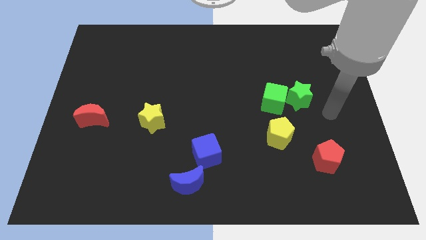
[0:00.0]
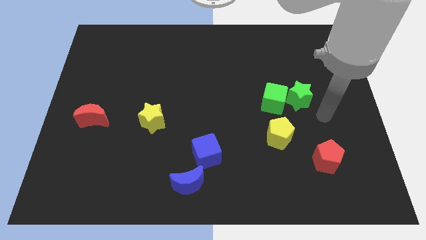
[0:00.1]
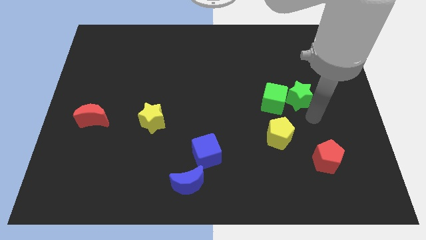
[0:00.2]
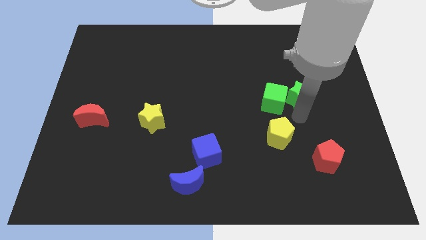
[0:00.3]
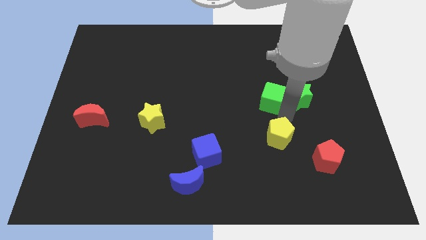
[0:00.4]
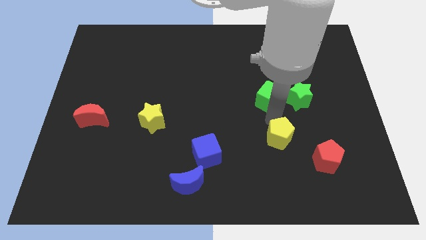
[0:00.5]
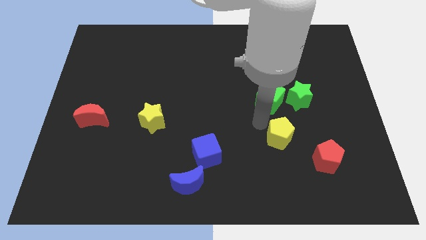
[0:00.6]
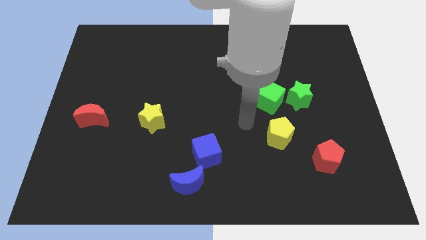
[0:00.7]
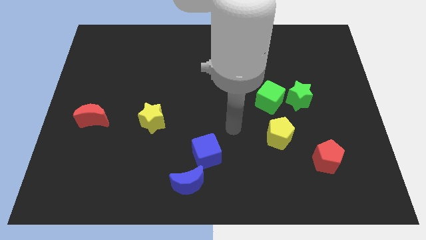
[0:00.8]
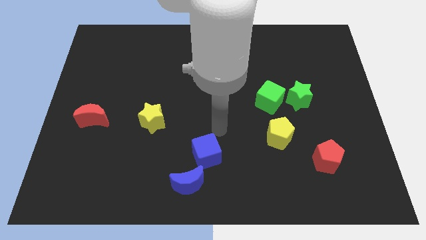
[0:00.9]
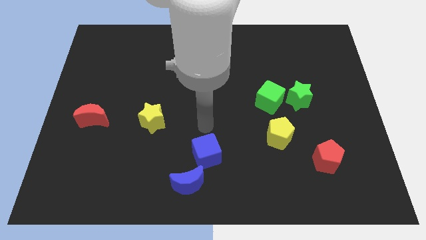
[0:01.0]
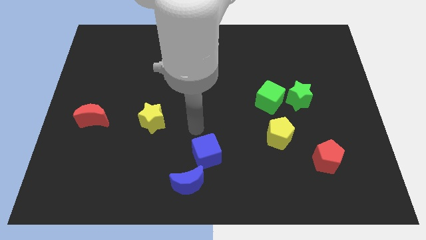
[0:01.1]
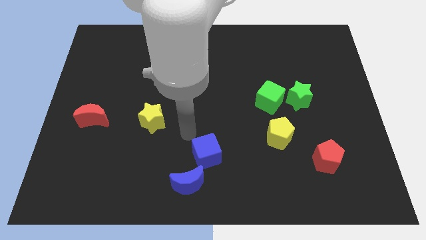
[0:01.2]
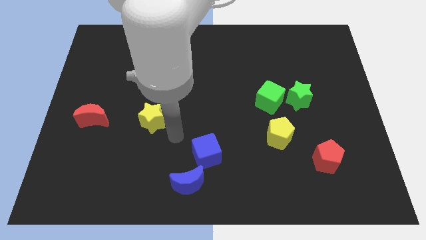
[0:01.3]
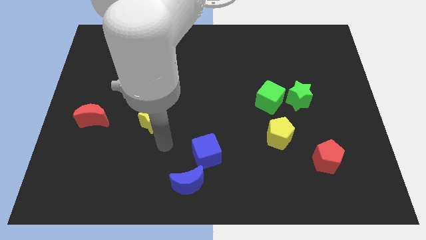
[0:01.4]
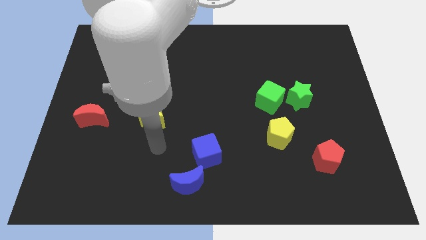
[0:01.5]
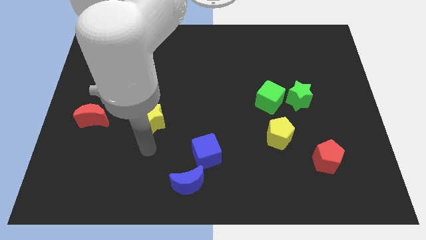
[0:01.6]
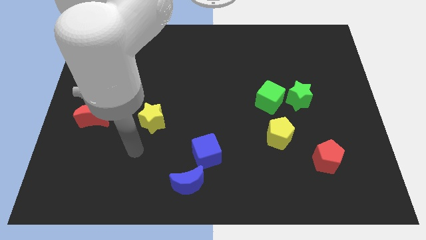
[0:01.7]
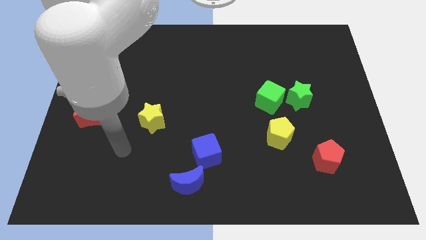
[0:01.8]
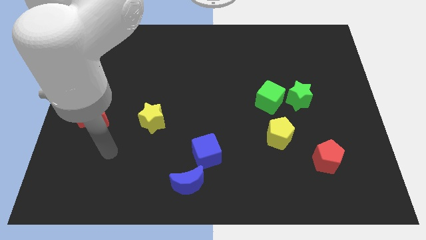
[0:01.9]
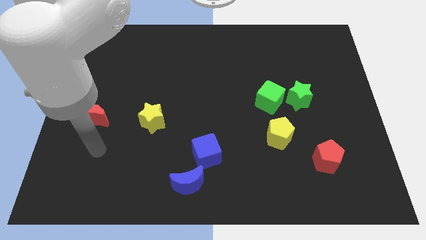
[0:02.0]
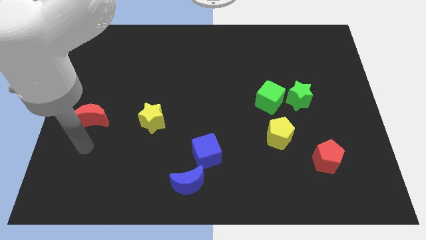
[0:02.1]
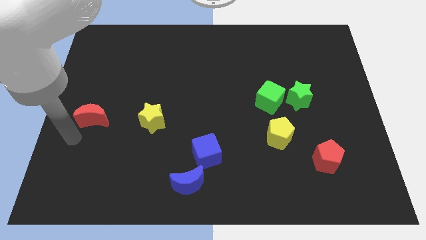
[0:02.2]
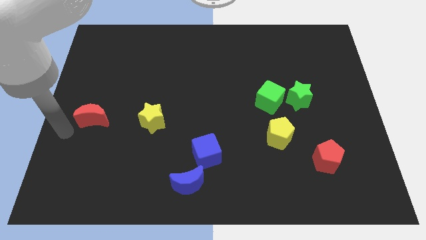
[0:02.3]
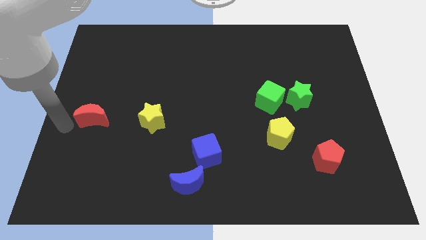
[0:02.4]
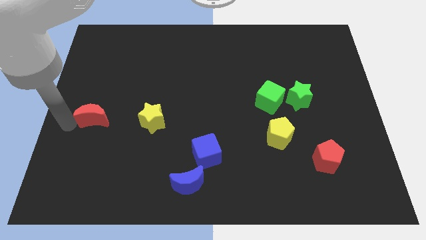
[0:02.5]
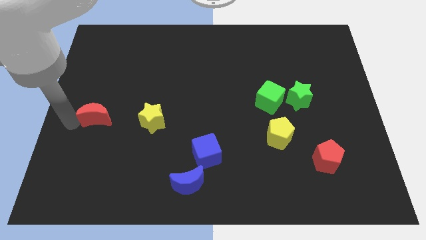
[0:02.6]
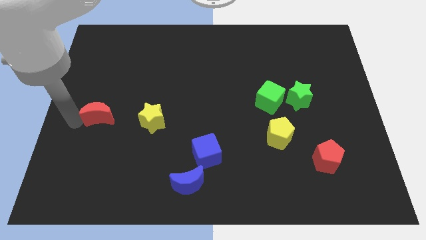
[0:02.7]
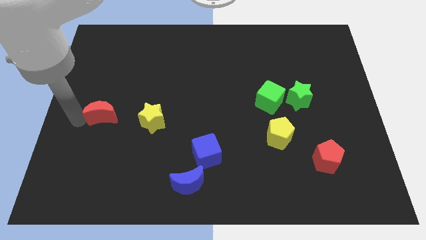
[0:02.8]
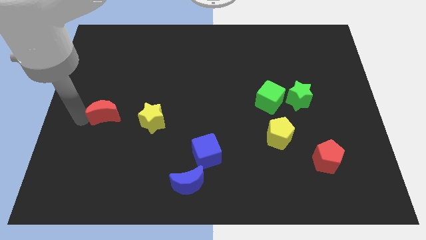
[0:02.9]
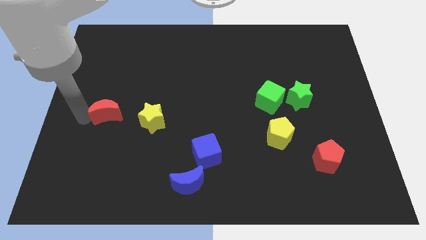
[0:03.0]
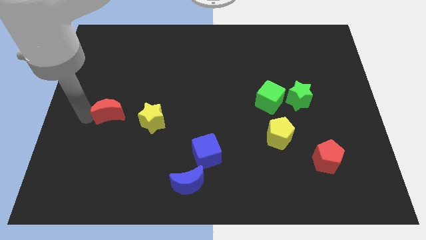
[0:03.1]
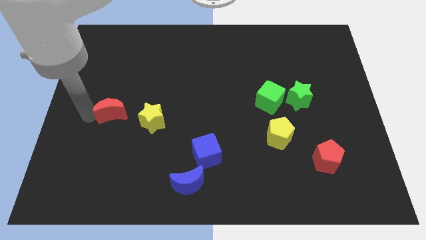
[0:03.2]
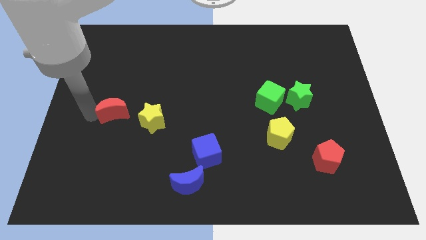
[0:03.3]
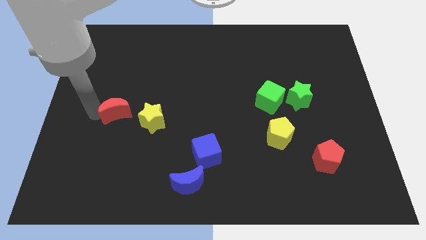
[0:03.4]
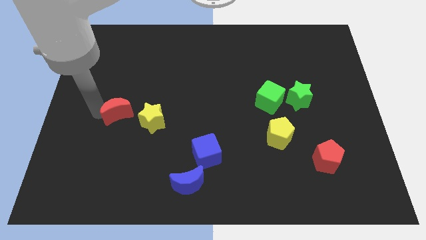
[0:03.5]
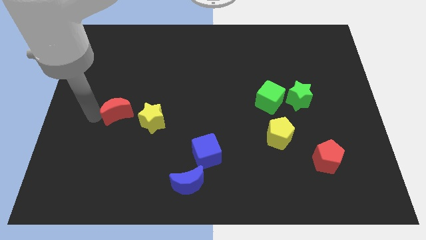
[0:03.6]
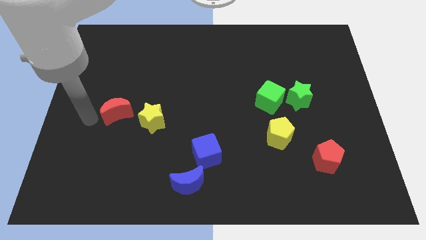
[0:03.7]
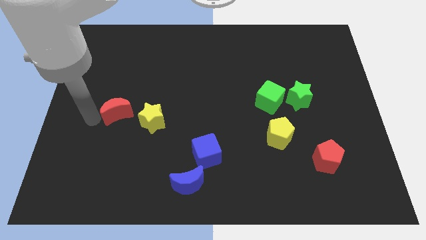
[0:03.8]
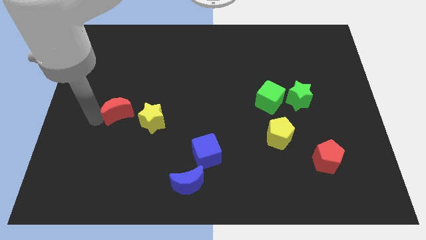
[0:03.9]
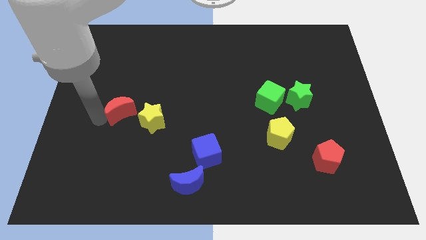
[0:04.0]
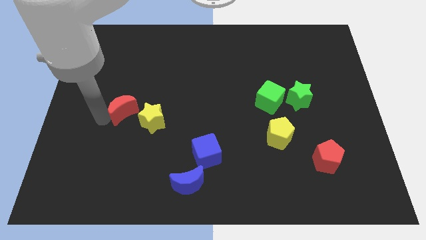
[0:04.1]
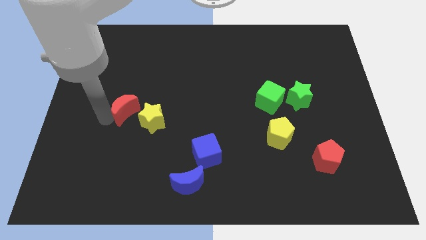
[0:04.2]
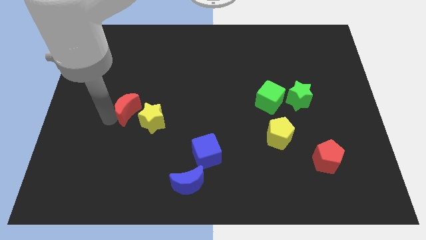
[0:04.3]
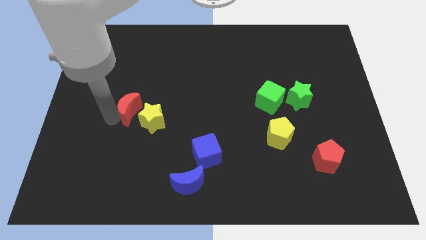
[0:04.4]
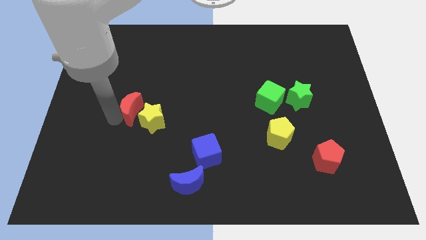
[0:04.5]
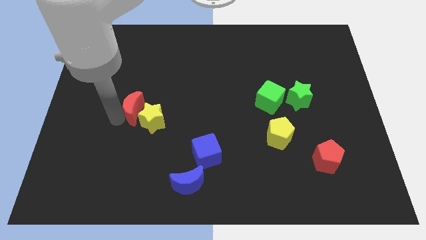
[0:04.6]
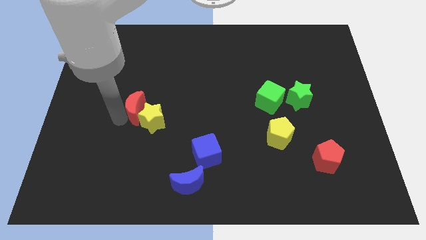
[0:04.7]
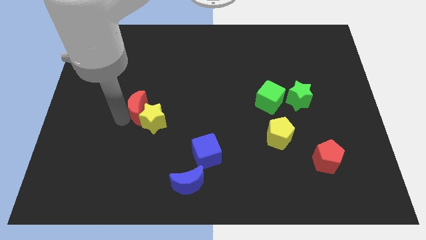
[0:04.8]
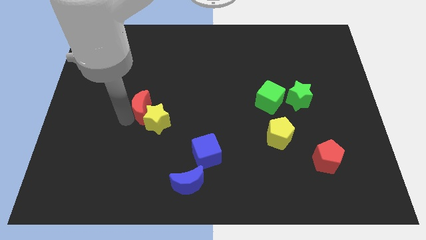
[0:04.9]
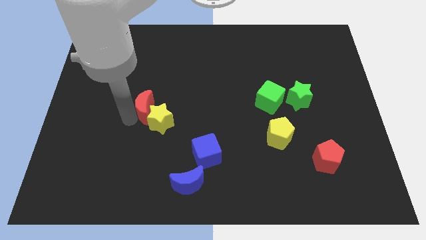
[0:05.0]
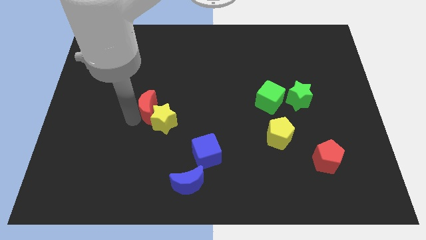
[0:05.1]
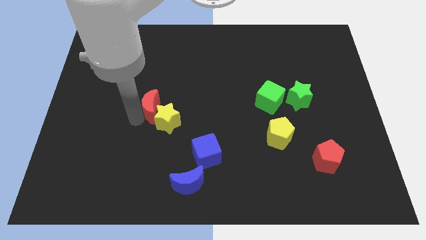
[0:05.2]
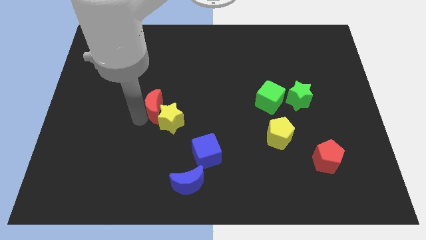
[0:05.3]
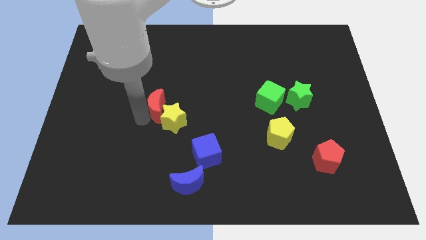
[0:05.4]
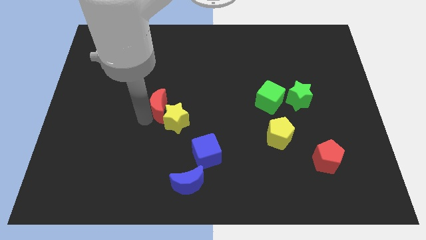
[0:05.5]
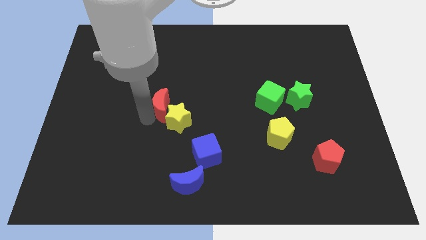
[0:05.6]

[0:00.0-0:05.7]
slide the red moon to the middle of the board

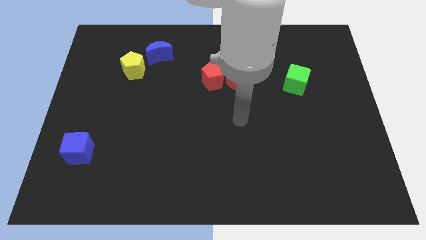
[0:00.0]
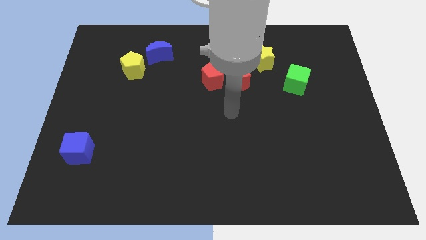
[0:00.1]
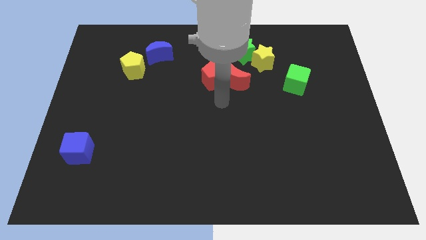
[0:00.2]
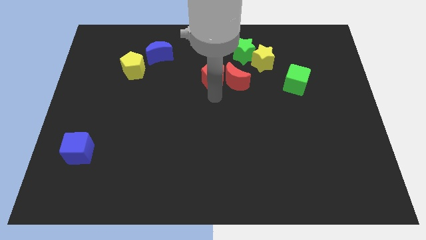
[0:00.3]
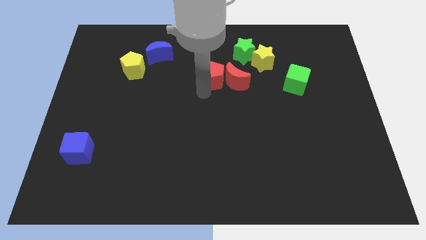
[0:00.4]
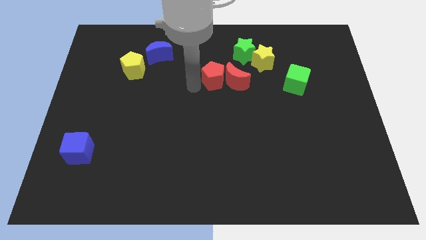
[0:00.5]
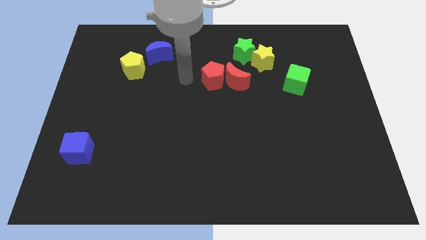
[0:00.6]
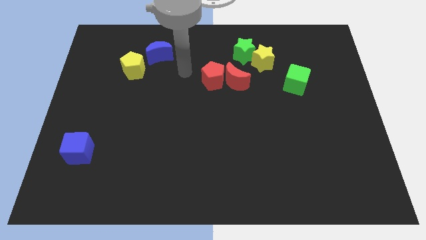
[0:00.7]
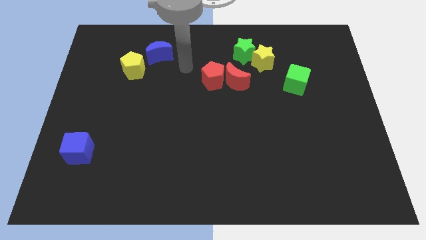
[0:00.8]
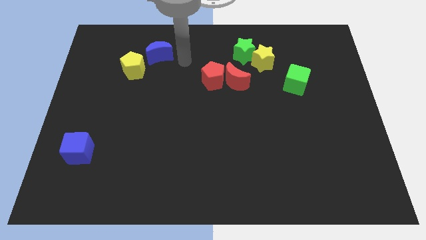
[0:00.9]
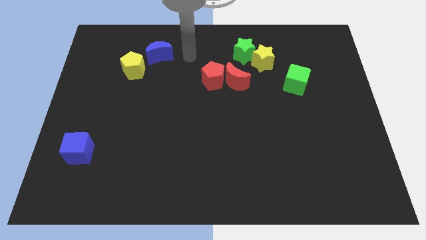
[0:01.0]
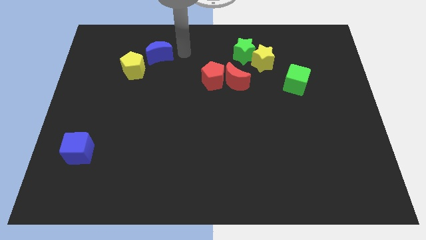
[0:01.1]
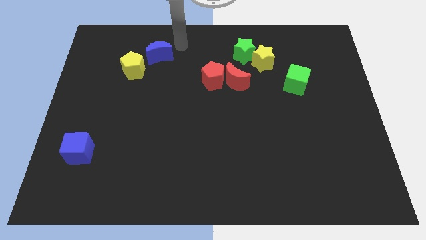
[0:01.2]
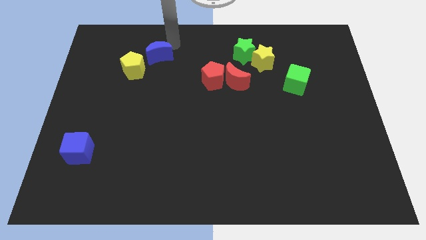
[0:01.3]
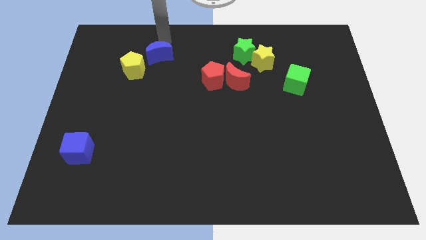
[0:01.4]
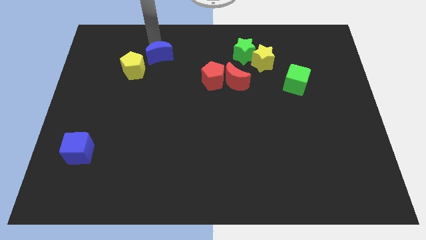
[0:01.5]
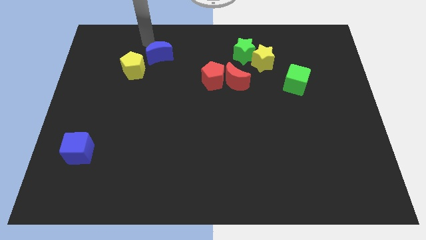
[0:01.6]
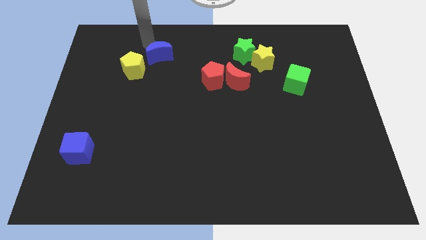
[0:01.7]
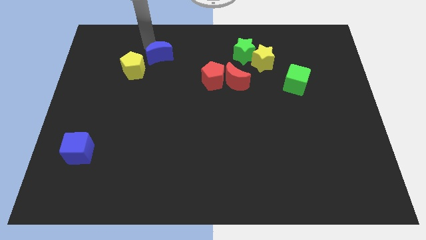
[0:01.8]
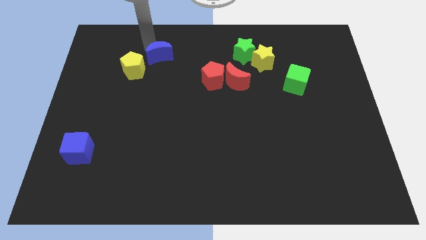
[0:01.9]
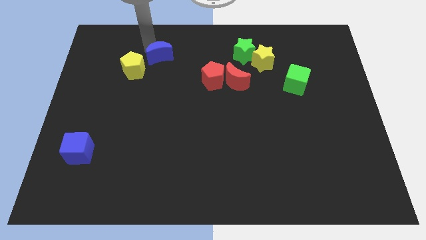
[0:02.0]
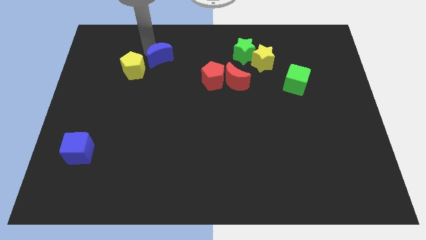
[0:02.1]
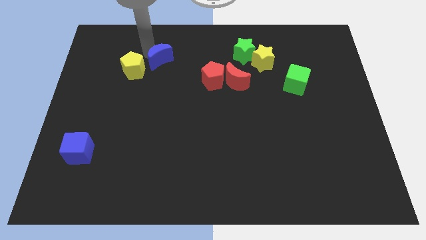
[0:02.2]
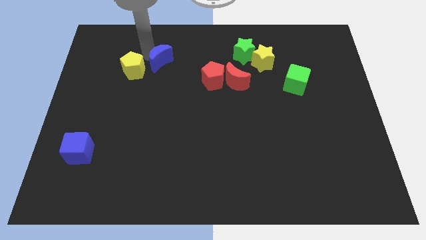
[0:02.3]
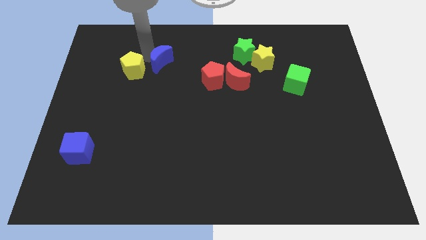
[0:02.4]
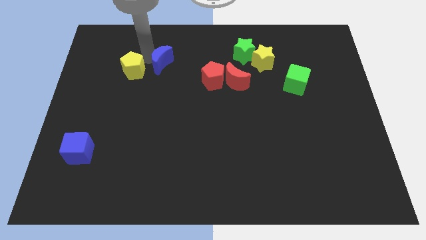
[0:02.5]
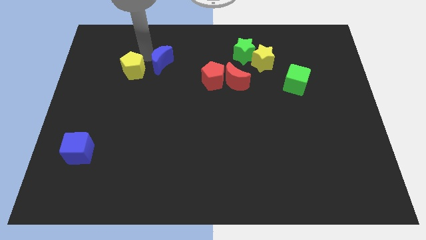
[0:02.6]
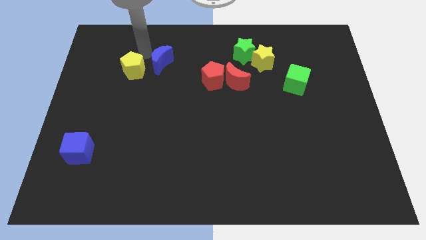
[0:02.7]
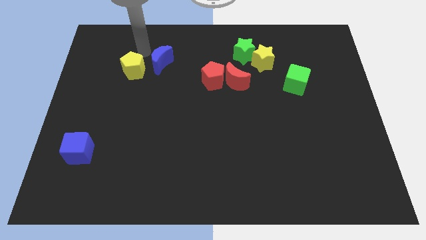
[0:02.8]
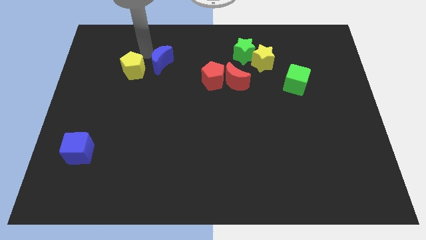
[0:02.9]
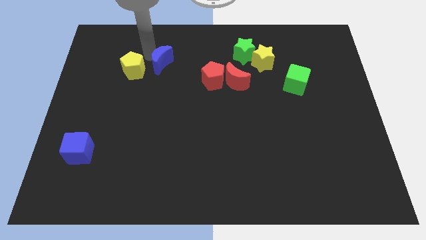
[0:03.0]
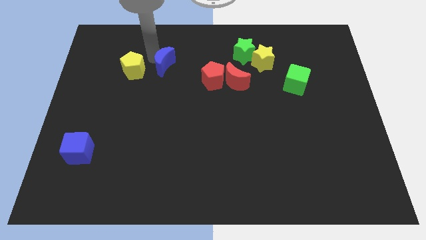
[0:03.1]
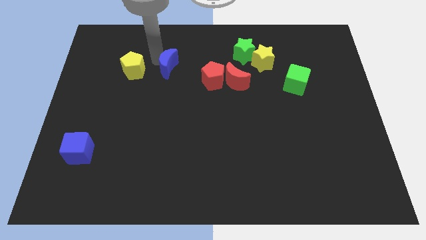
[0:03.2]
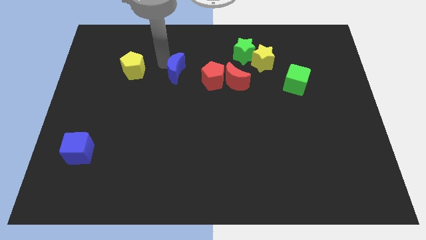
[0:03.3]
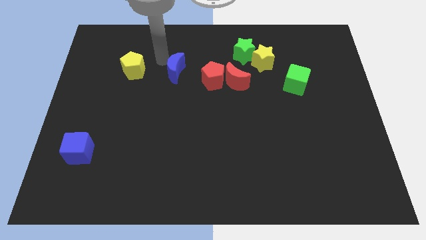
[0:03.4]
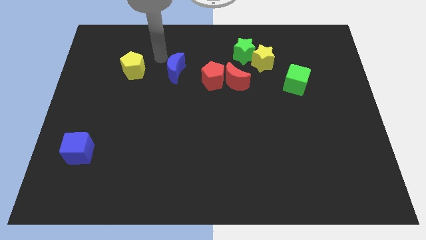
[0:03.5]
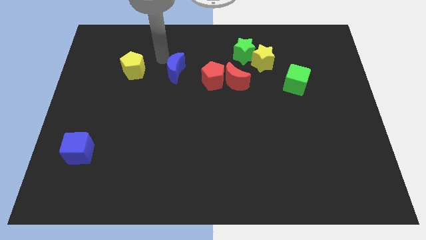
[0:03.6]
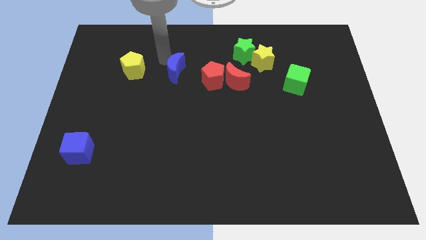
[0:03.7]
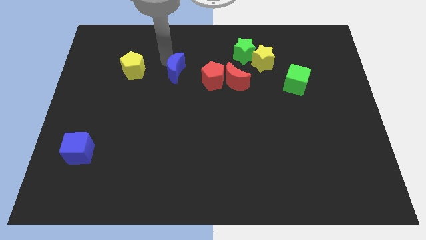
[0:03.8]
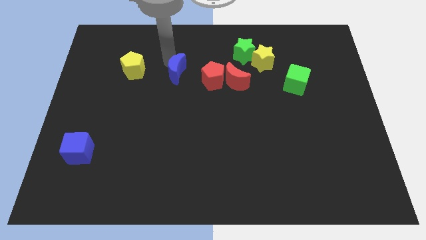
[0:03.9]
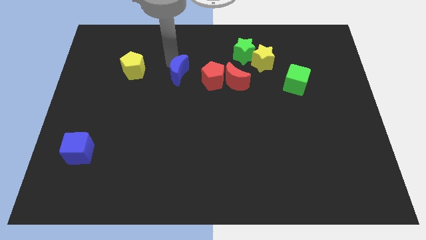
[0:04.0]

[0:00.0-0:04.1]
slide the blue moon to the center of the board
